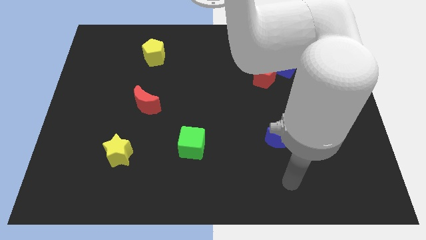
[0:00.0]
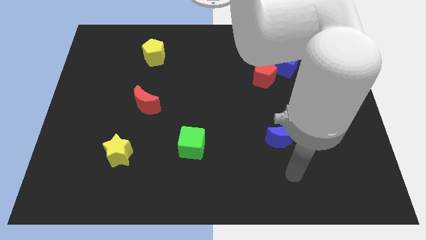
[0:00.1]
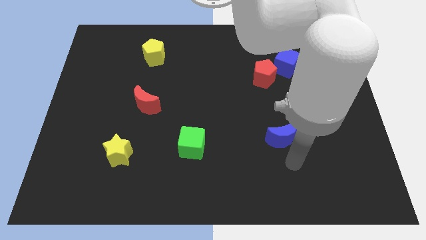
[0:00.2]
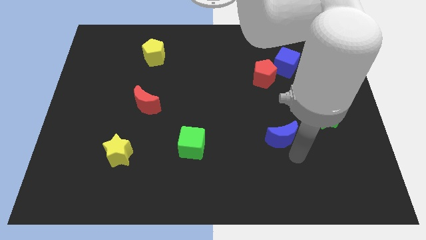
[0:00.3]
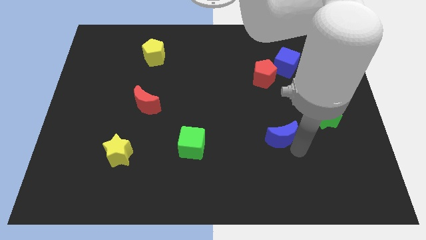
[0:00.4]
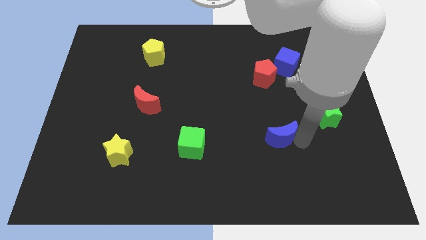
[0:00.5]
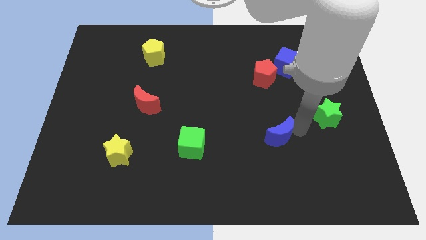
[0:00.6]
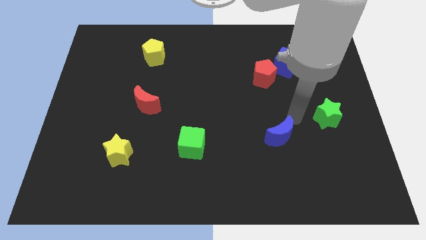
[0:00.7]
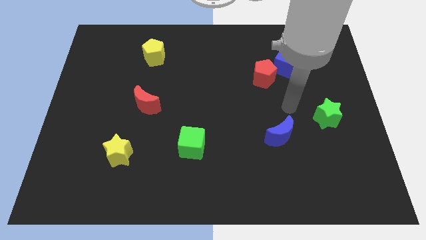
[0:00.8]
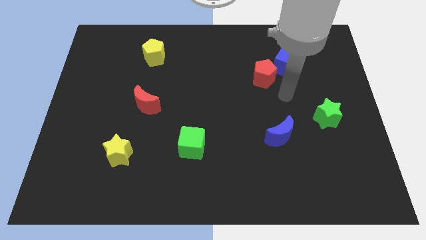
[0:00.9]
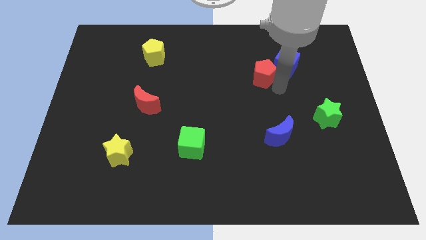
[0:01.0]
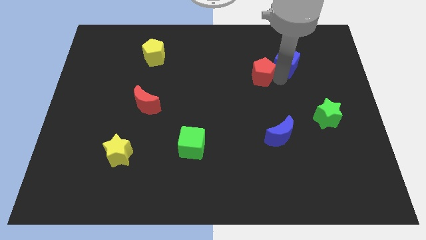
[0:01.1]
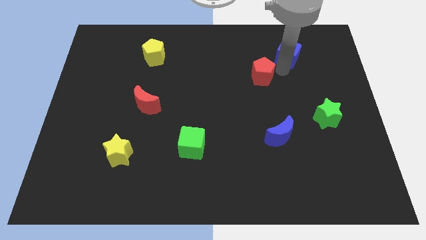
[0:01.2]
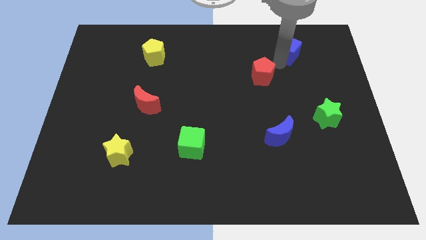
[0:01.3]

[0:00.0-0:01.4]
pull the red pentagon apart from the blue cube

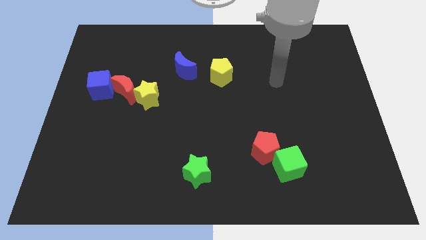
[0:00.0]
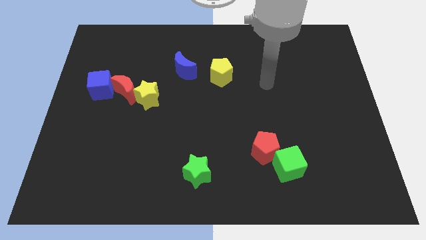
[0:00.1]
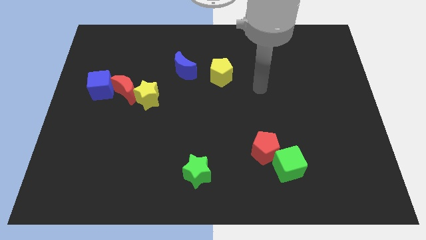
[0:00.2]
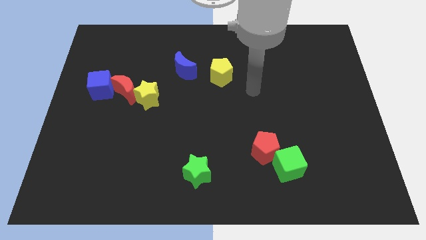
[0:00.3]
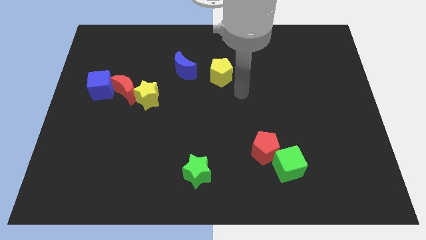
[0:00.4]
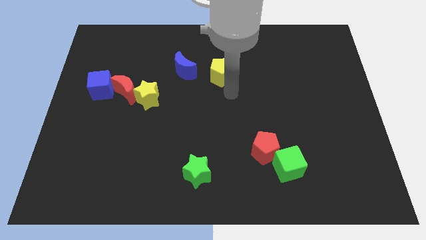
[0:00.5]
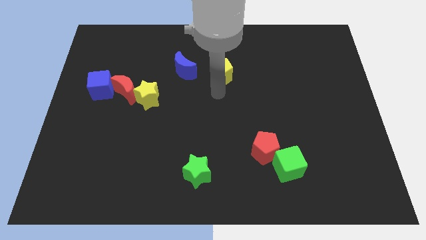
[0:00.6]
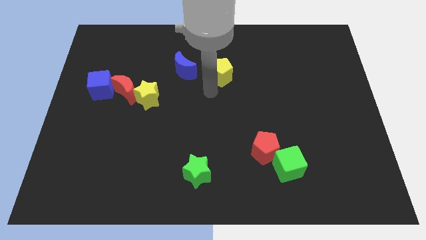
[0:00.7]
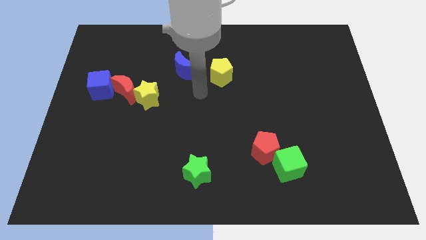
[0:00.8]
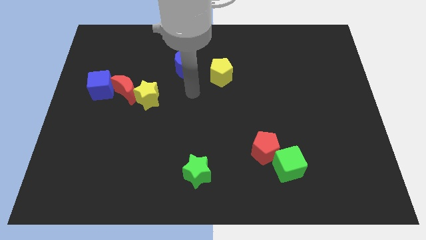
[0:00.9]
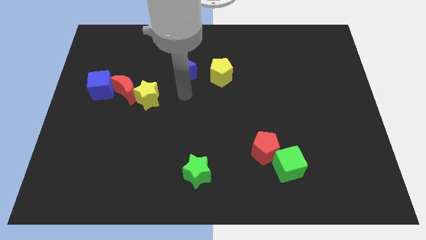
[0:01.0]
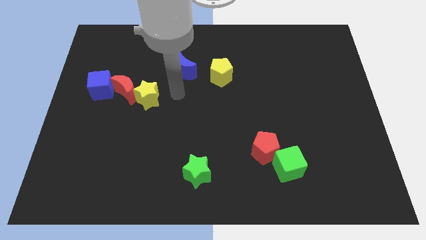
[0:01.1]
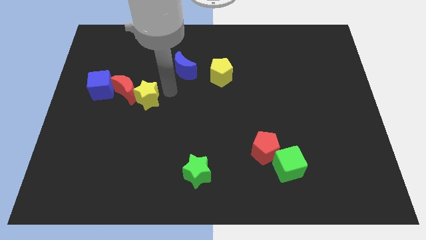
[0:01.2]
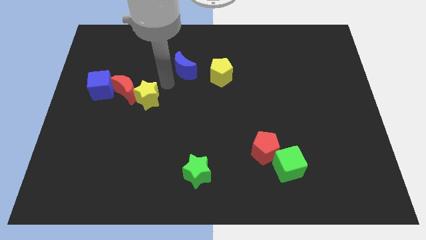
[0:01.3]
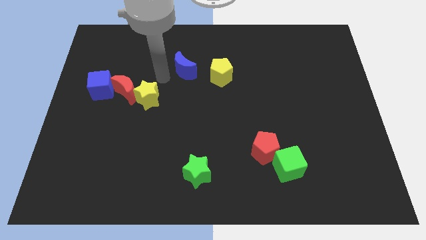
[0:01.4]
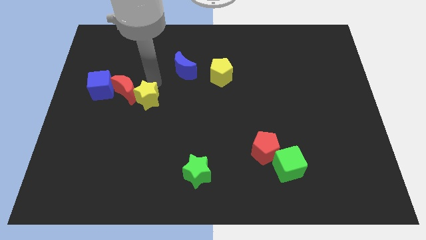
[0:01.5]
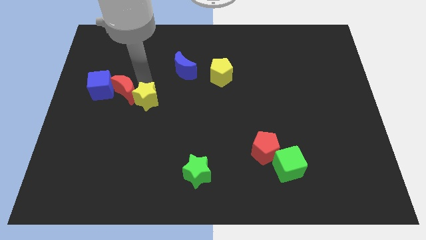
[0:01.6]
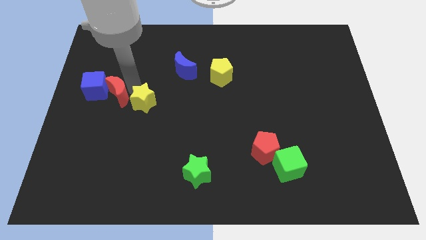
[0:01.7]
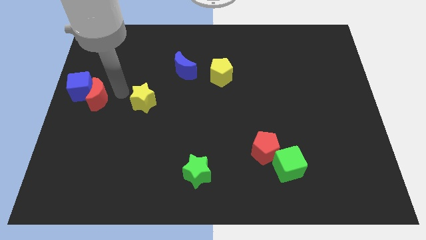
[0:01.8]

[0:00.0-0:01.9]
pull the yellow star apart from the red moon

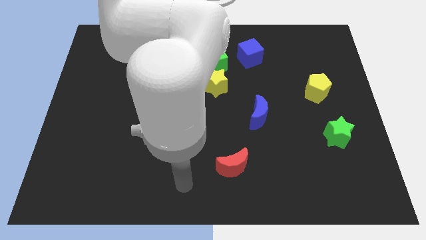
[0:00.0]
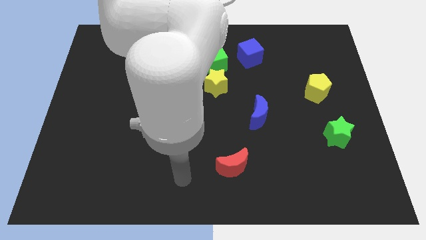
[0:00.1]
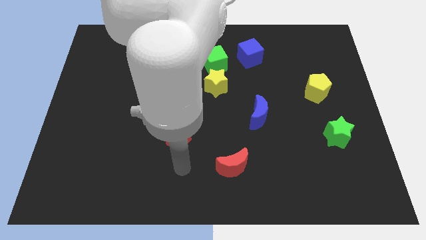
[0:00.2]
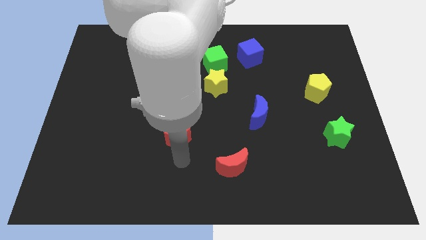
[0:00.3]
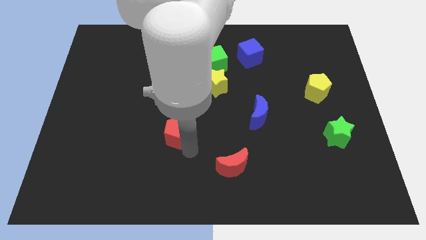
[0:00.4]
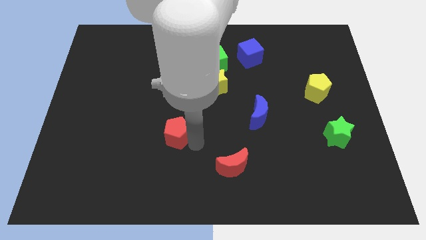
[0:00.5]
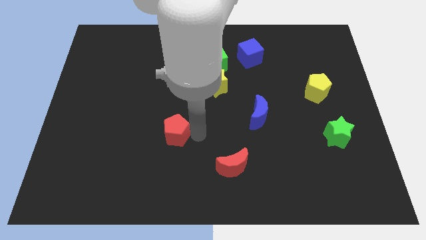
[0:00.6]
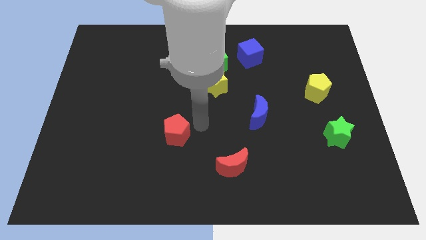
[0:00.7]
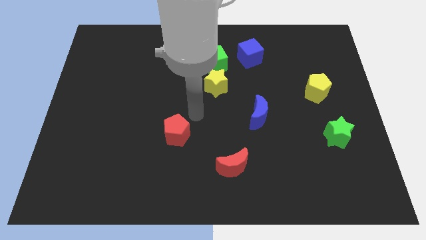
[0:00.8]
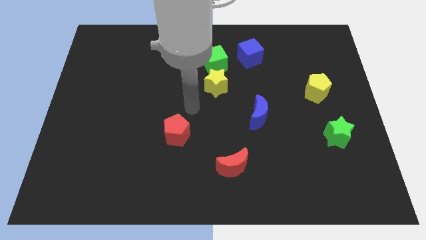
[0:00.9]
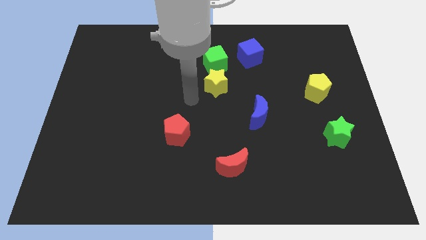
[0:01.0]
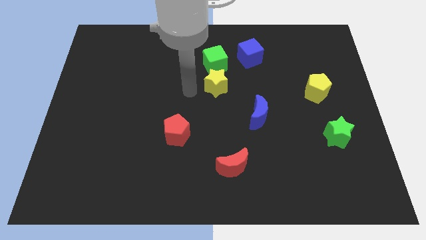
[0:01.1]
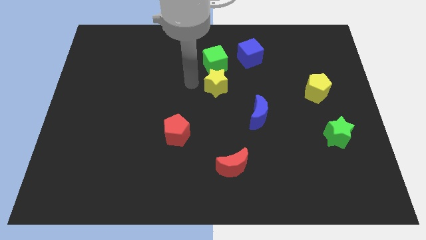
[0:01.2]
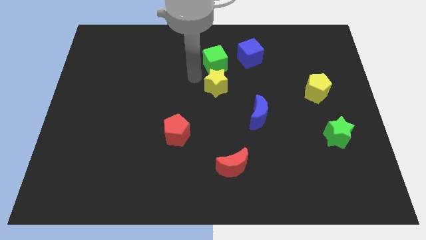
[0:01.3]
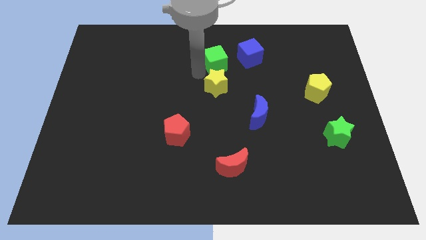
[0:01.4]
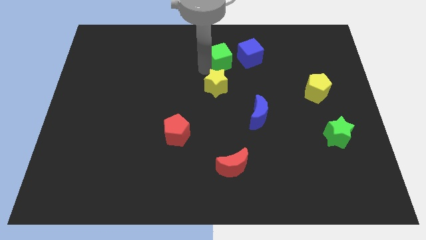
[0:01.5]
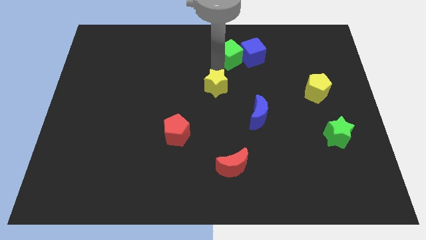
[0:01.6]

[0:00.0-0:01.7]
move the yellow star away from the green cube

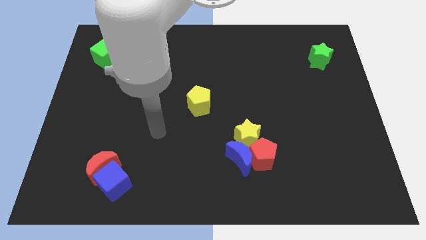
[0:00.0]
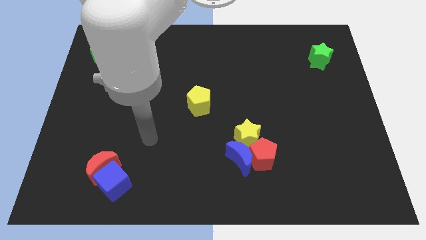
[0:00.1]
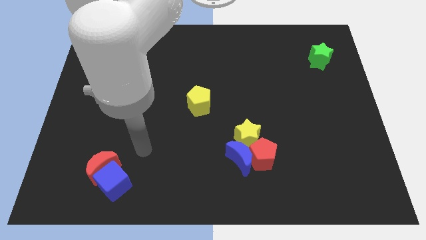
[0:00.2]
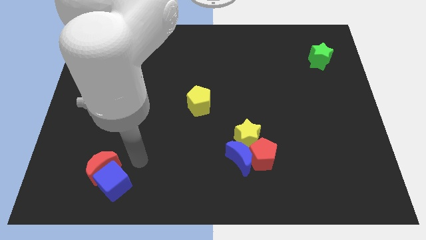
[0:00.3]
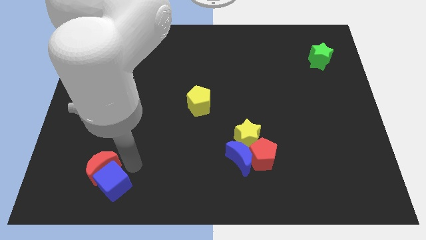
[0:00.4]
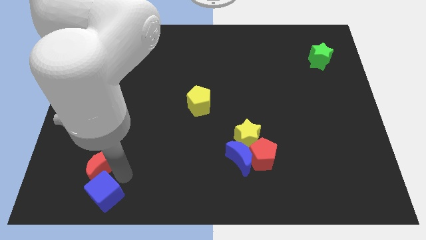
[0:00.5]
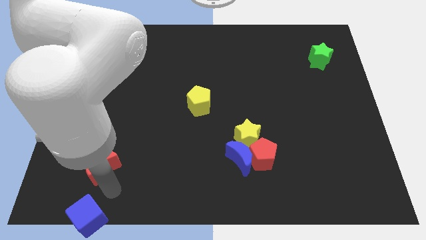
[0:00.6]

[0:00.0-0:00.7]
move the red moon away from the blue cube

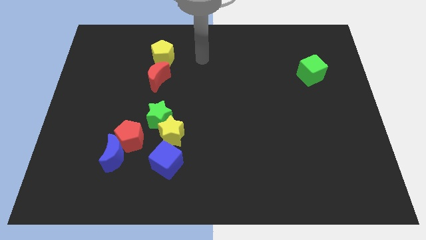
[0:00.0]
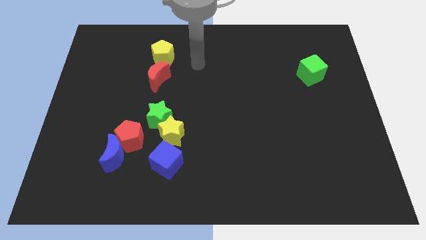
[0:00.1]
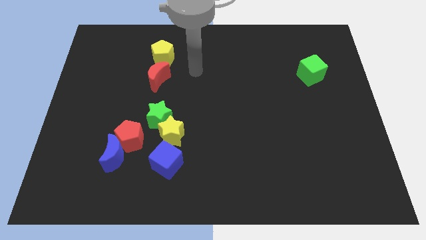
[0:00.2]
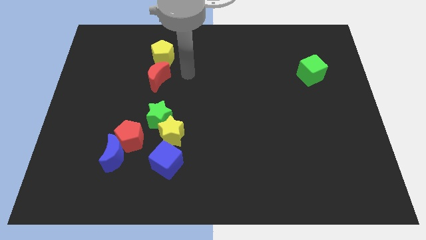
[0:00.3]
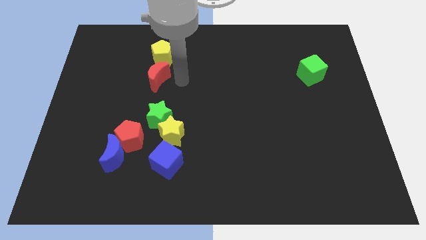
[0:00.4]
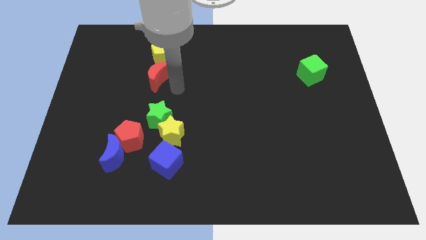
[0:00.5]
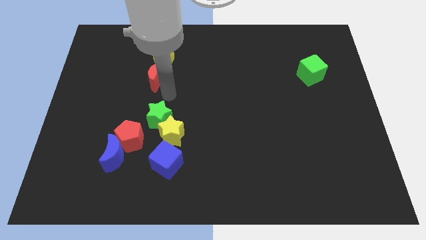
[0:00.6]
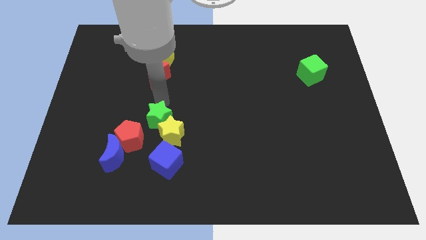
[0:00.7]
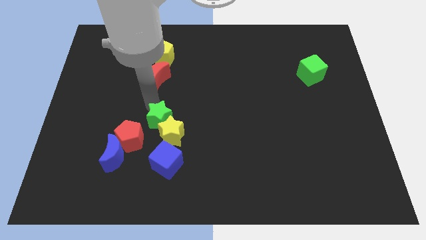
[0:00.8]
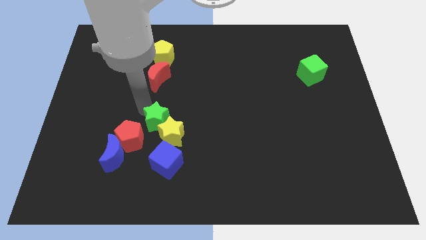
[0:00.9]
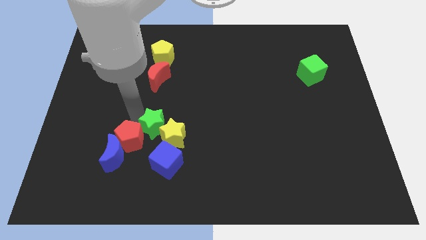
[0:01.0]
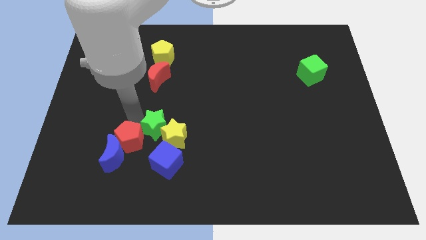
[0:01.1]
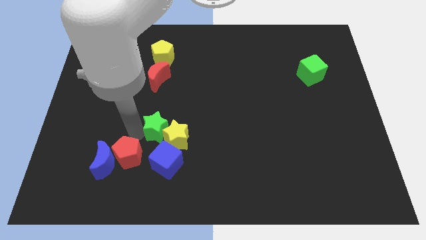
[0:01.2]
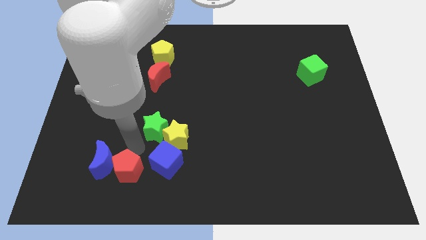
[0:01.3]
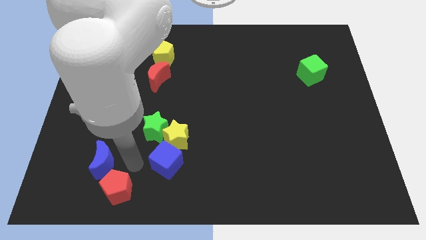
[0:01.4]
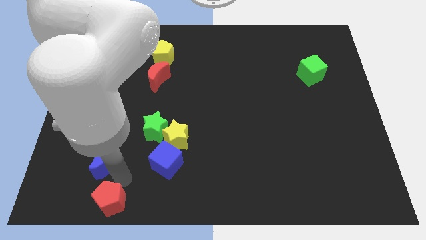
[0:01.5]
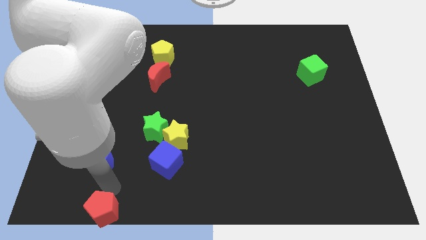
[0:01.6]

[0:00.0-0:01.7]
separate the blue moon from the red pentagon

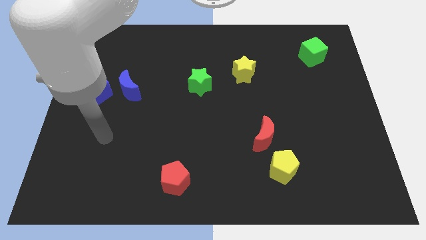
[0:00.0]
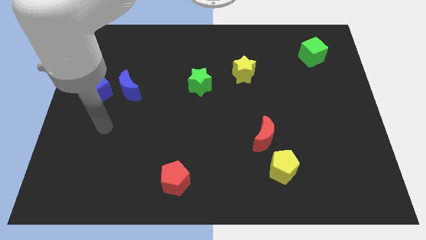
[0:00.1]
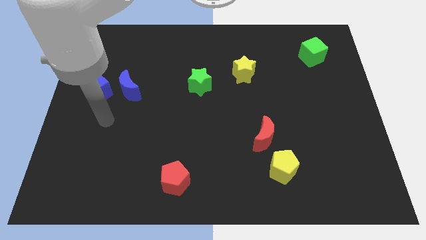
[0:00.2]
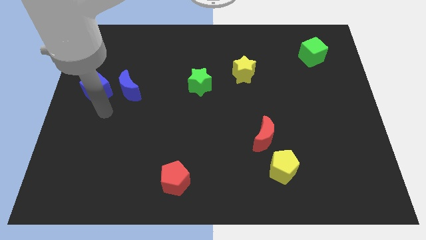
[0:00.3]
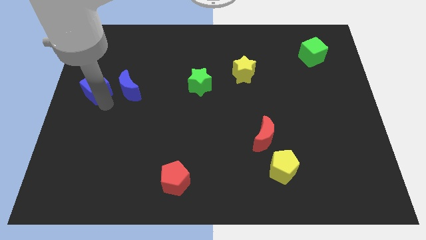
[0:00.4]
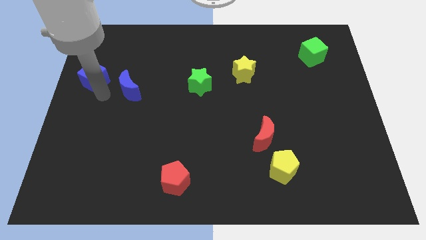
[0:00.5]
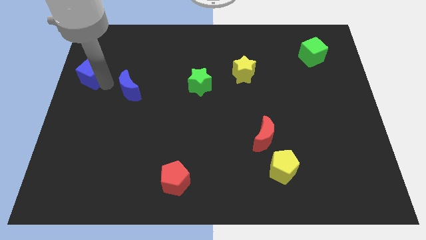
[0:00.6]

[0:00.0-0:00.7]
move the blue moon away from the blue cube

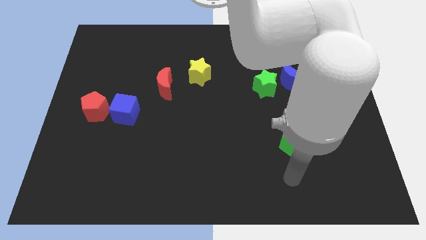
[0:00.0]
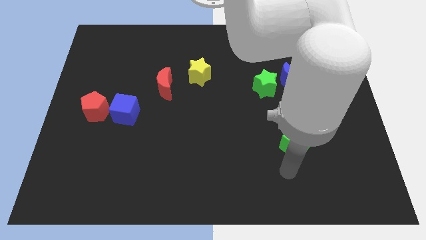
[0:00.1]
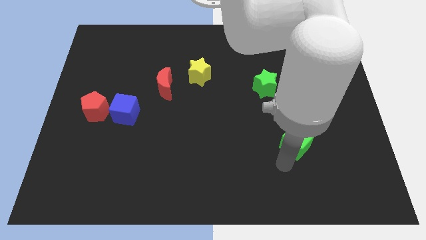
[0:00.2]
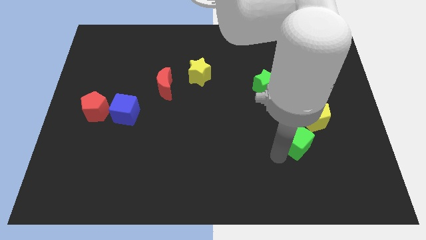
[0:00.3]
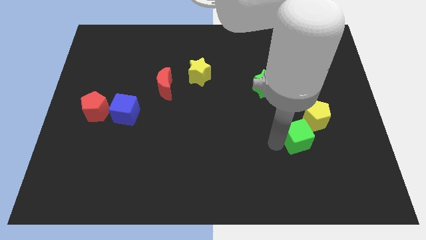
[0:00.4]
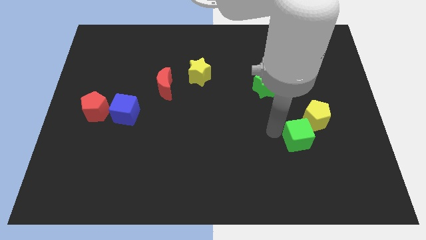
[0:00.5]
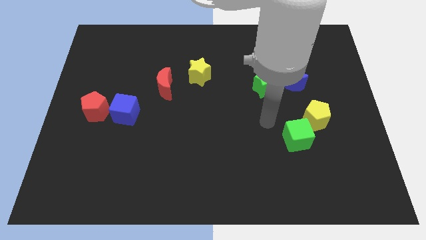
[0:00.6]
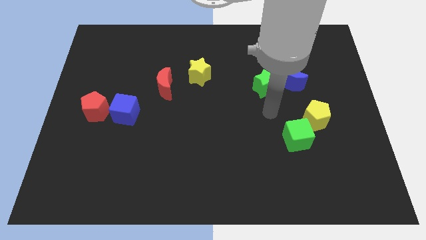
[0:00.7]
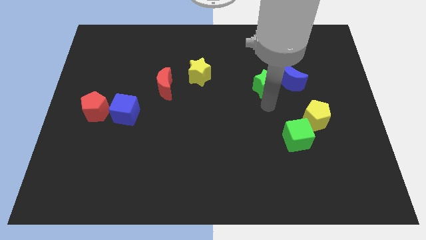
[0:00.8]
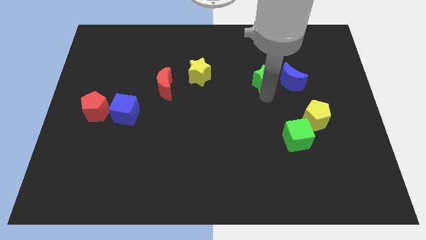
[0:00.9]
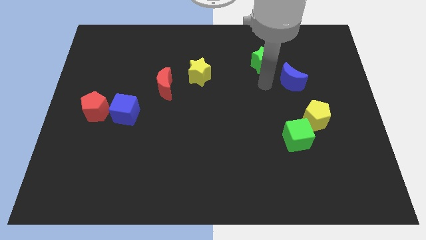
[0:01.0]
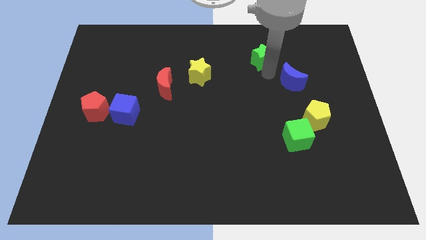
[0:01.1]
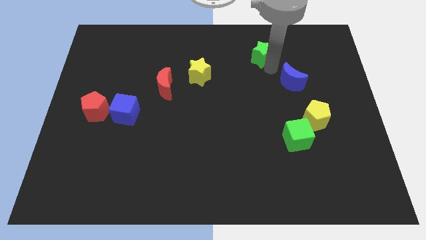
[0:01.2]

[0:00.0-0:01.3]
move the blue moon away from the green star
